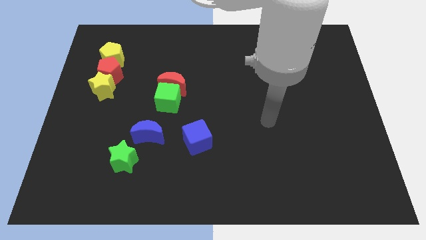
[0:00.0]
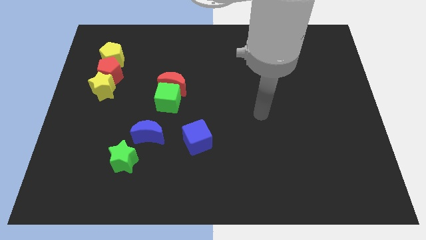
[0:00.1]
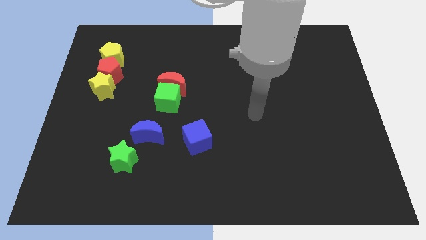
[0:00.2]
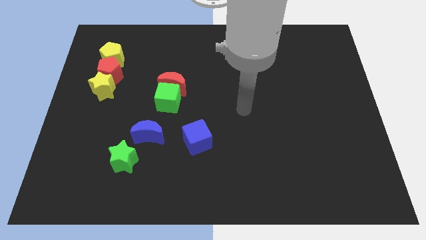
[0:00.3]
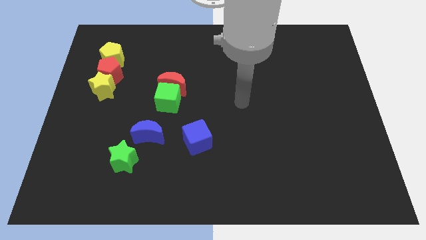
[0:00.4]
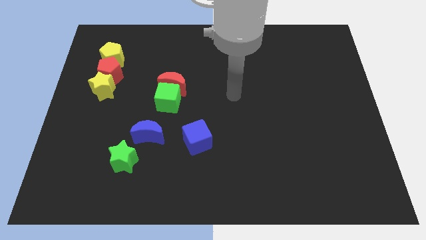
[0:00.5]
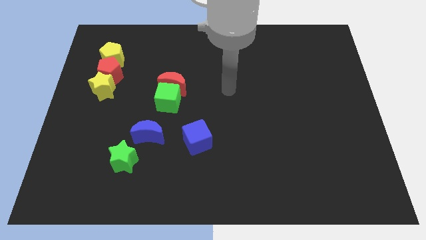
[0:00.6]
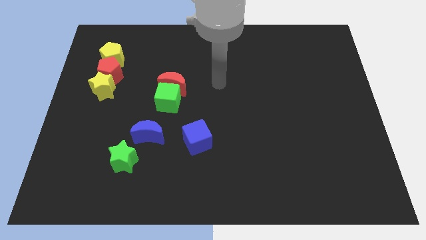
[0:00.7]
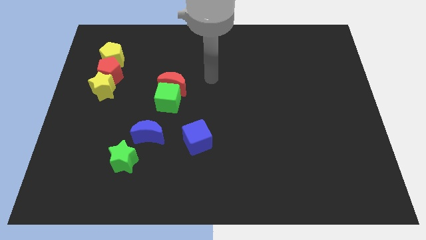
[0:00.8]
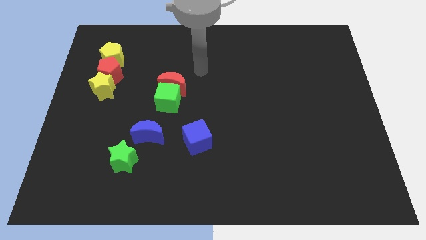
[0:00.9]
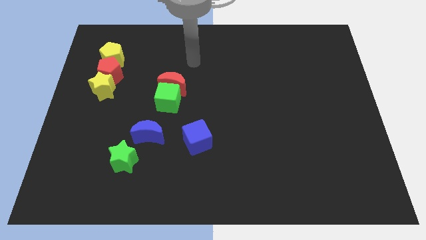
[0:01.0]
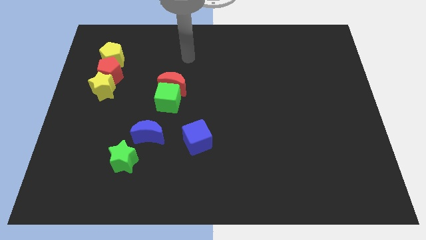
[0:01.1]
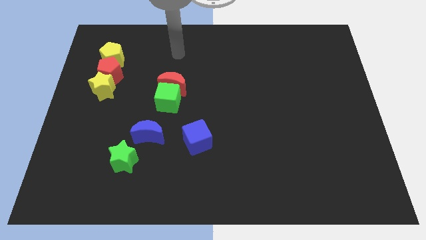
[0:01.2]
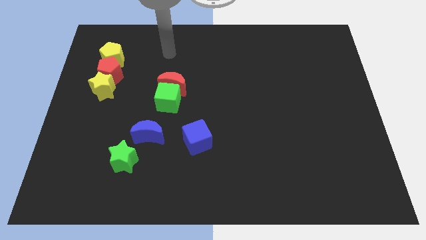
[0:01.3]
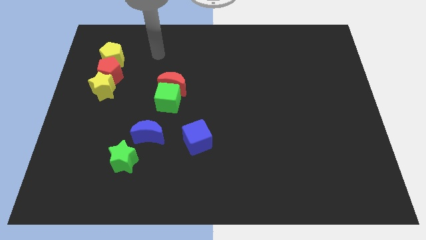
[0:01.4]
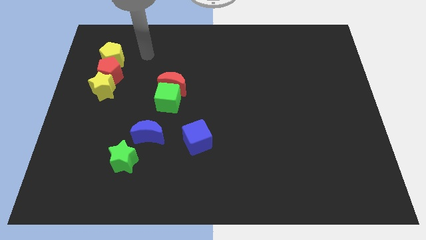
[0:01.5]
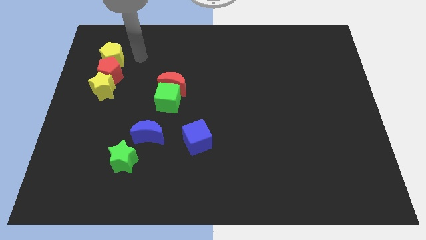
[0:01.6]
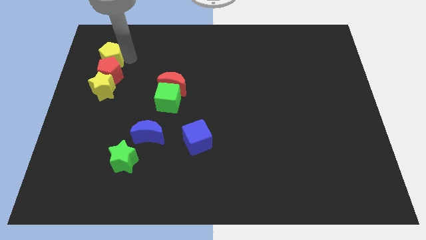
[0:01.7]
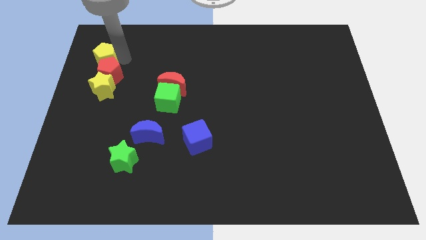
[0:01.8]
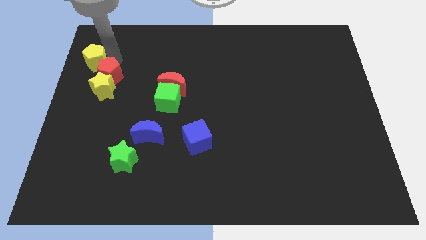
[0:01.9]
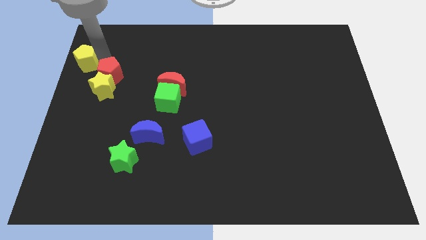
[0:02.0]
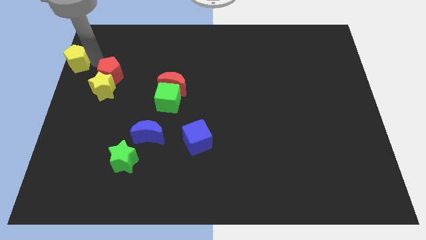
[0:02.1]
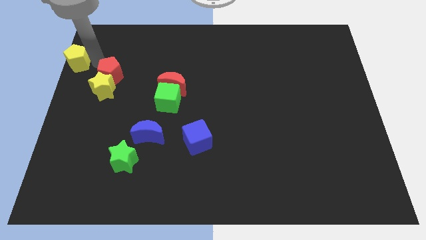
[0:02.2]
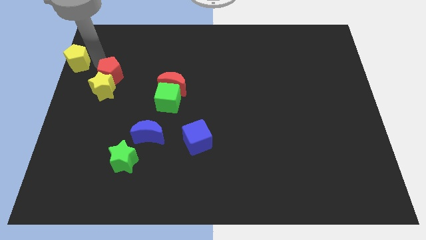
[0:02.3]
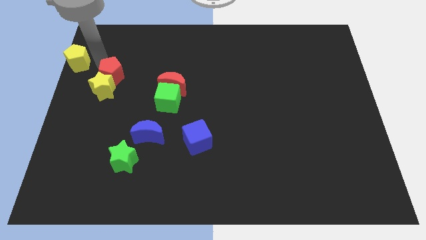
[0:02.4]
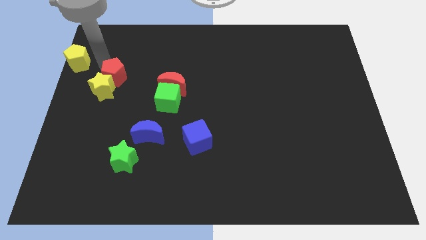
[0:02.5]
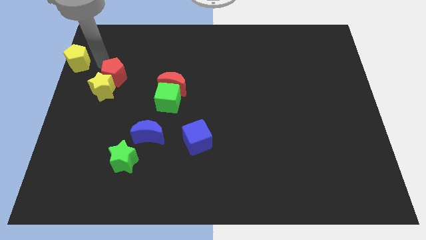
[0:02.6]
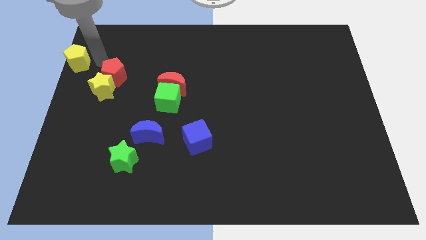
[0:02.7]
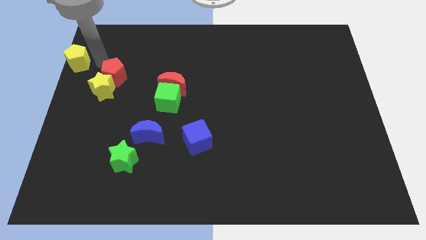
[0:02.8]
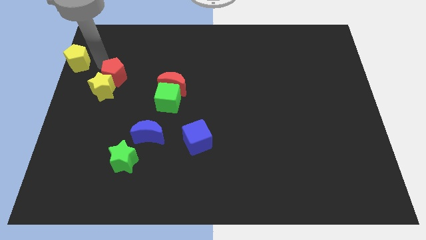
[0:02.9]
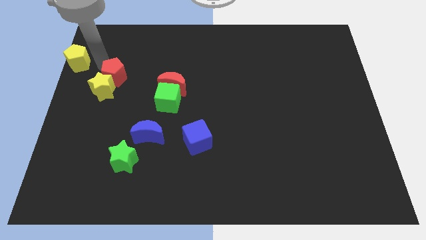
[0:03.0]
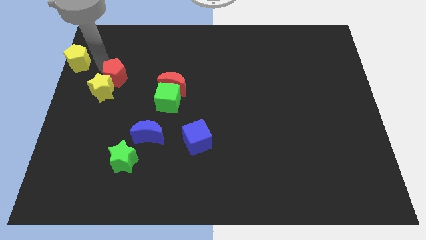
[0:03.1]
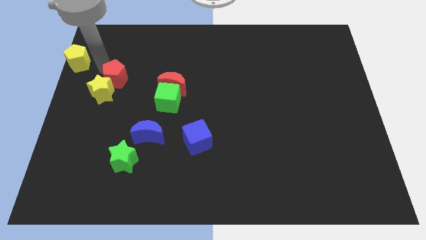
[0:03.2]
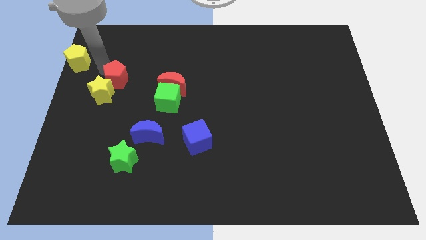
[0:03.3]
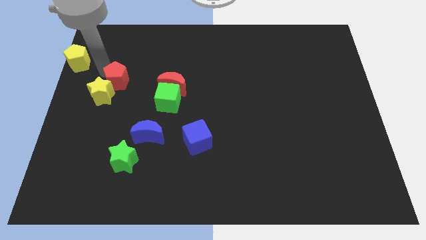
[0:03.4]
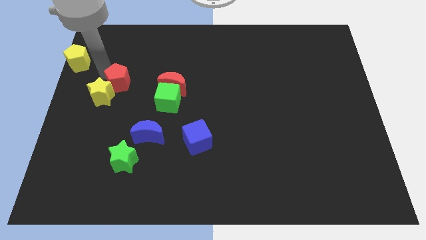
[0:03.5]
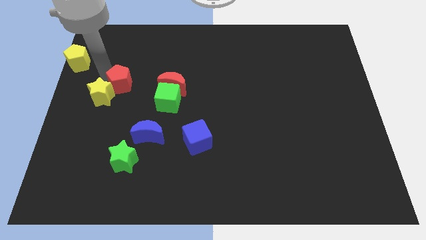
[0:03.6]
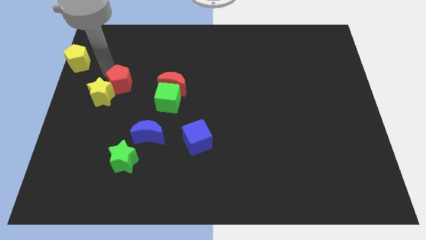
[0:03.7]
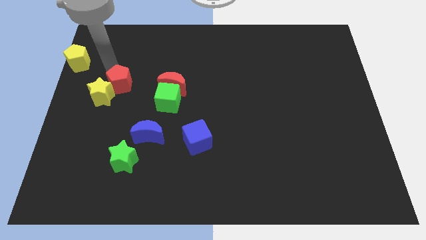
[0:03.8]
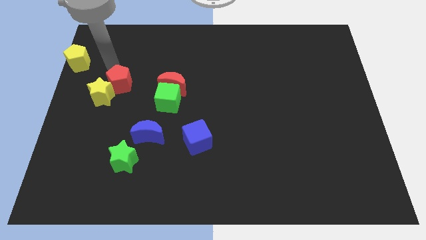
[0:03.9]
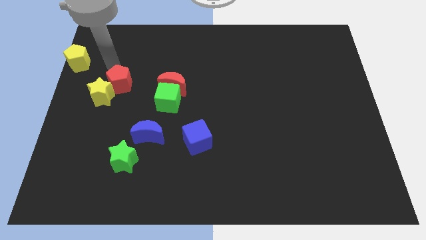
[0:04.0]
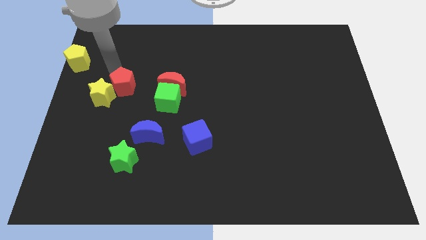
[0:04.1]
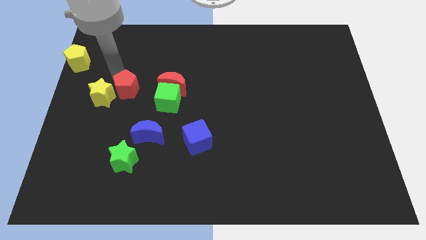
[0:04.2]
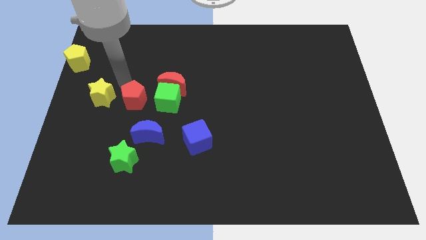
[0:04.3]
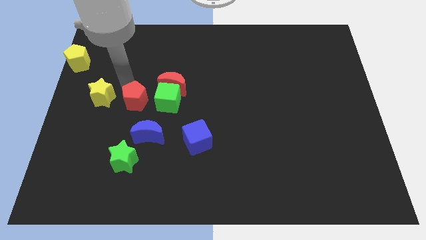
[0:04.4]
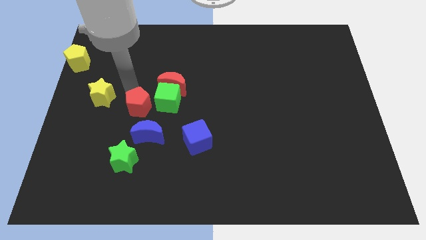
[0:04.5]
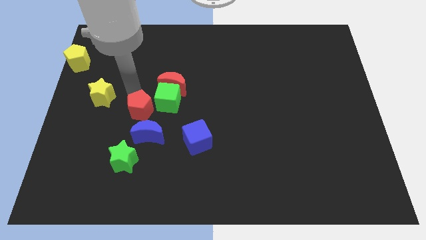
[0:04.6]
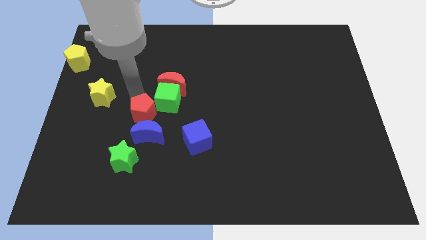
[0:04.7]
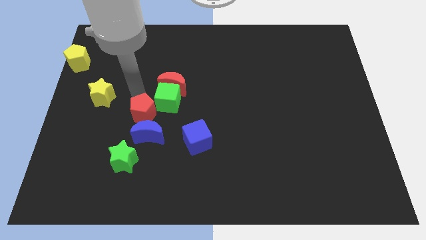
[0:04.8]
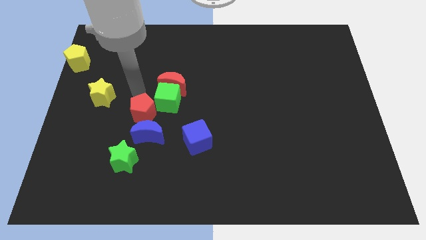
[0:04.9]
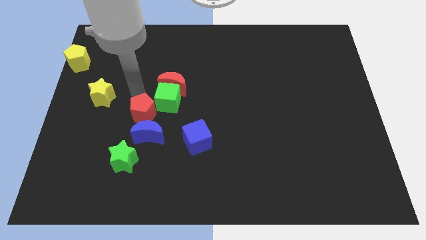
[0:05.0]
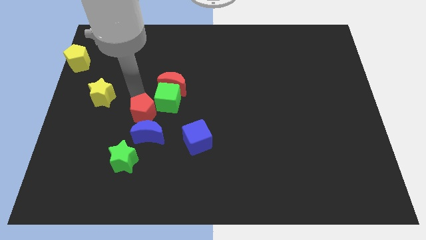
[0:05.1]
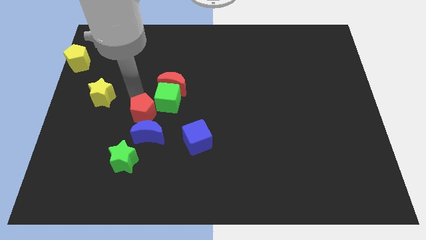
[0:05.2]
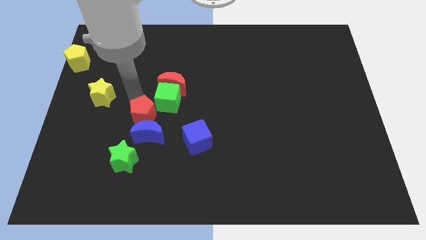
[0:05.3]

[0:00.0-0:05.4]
slide the red pentagon towards the blue moon

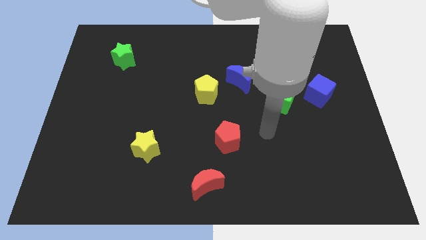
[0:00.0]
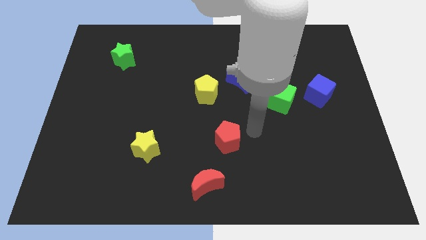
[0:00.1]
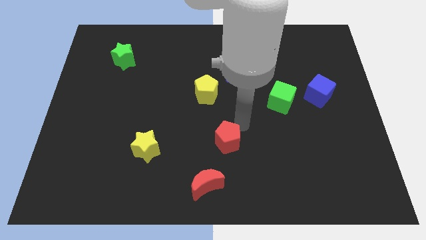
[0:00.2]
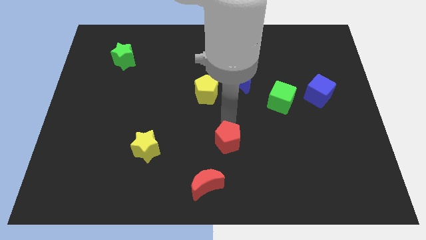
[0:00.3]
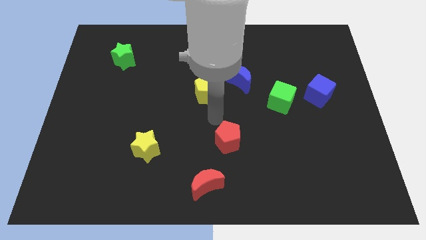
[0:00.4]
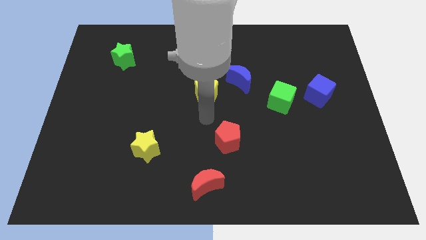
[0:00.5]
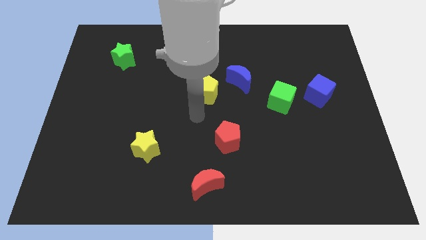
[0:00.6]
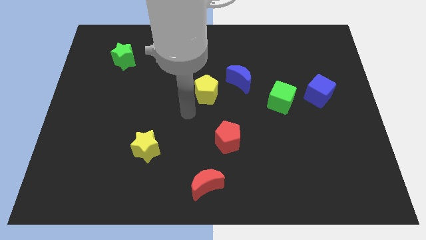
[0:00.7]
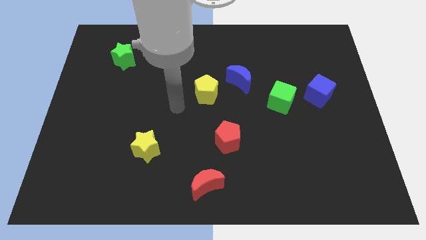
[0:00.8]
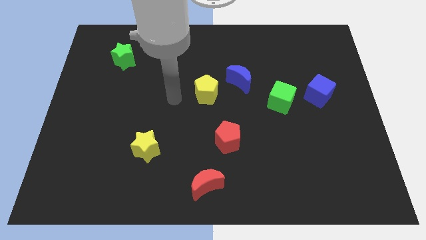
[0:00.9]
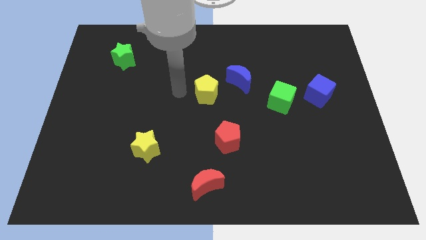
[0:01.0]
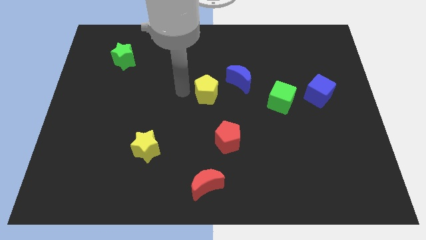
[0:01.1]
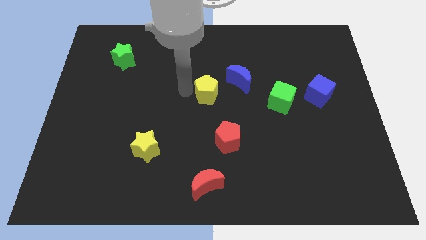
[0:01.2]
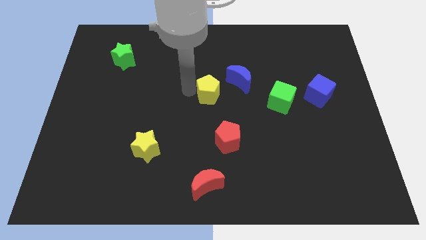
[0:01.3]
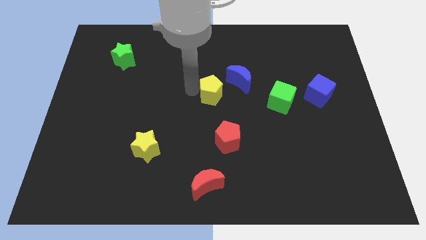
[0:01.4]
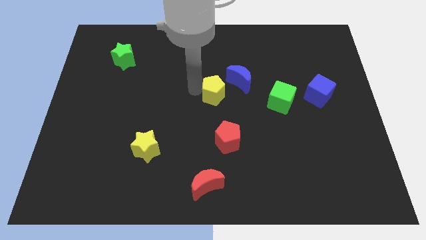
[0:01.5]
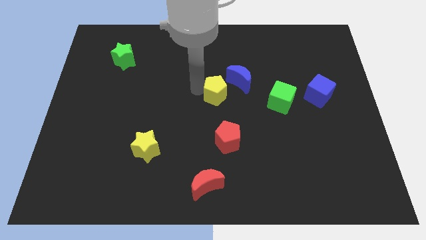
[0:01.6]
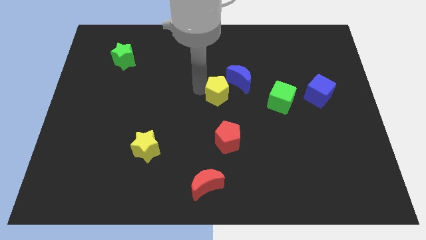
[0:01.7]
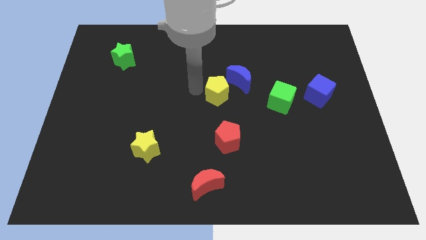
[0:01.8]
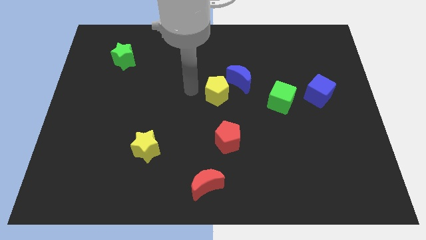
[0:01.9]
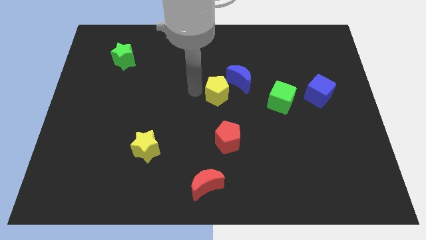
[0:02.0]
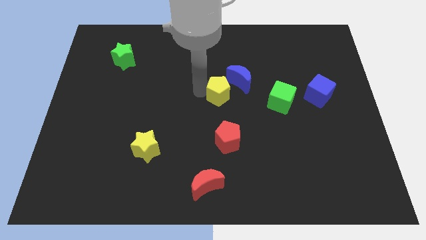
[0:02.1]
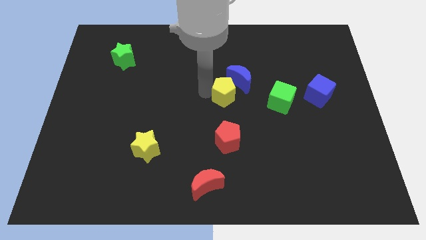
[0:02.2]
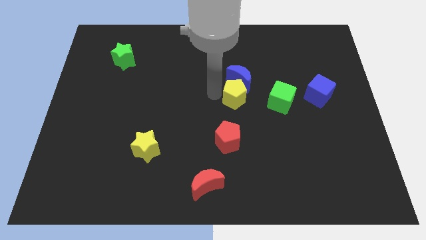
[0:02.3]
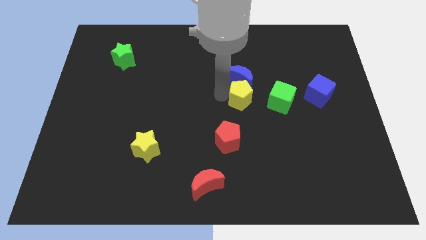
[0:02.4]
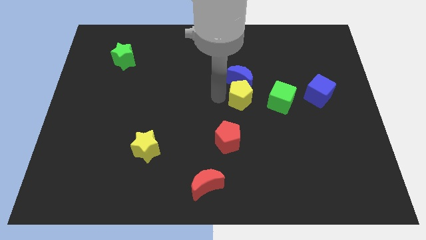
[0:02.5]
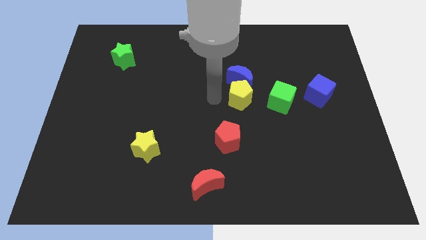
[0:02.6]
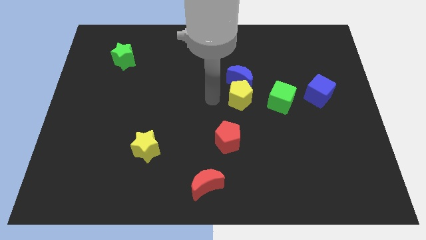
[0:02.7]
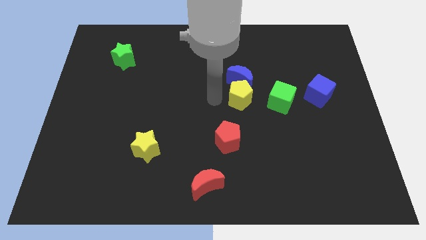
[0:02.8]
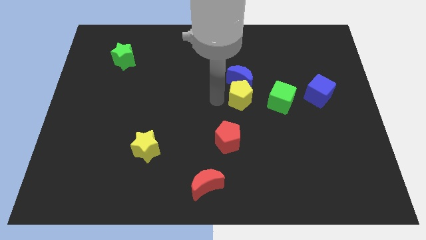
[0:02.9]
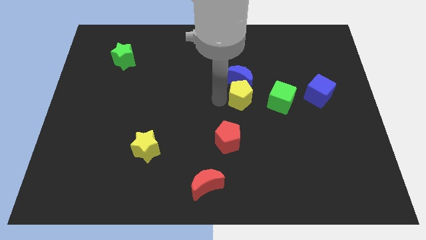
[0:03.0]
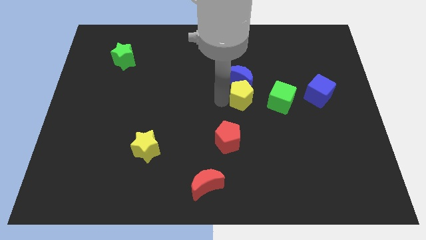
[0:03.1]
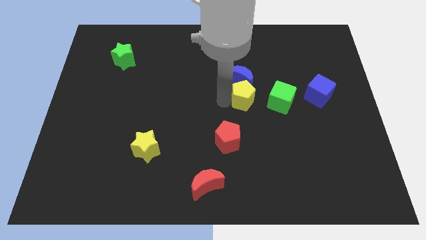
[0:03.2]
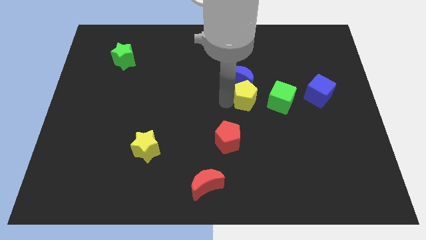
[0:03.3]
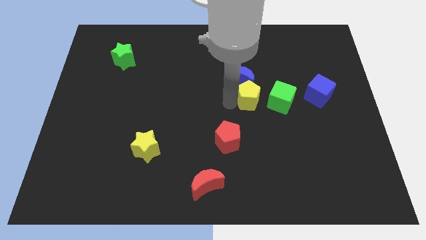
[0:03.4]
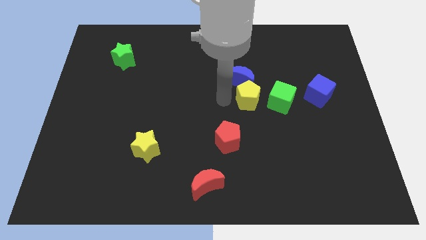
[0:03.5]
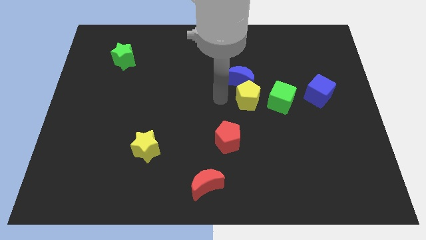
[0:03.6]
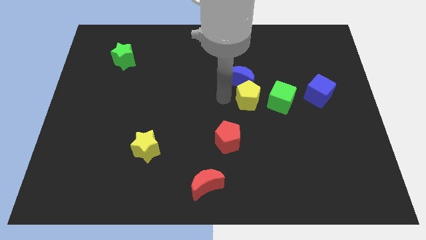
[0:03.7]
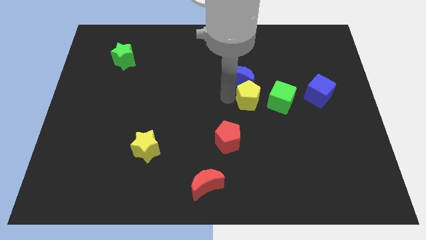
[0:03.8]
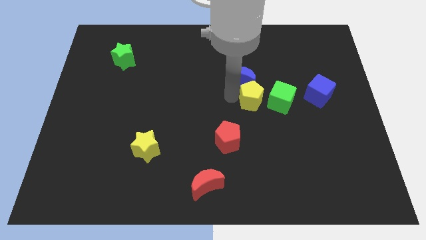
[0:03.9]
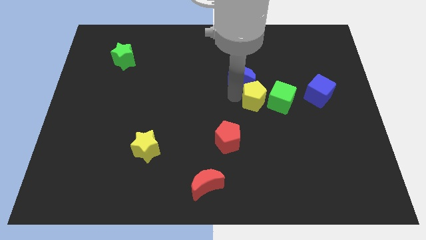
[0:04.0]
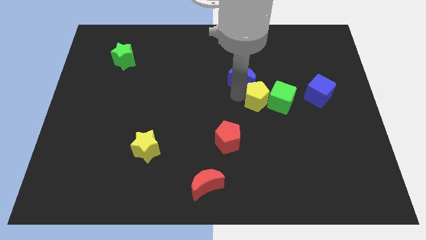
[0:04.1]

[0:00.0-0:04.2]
slide the yellow pentagon to the green cube
